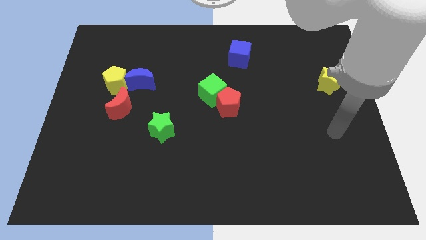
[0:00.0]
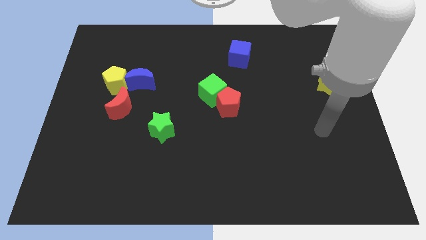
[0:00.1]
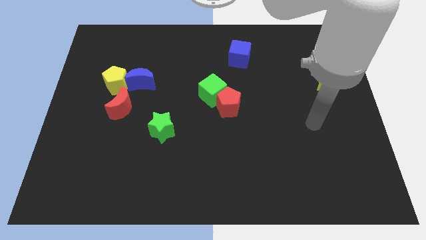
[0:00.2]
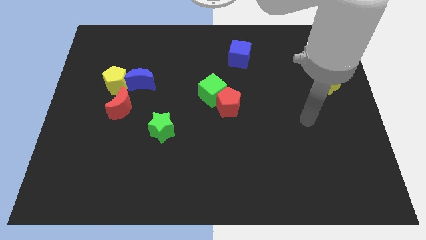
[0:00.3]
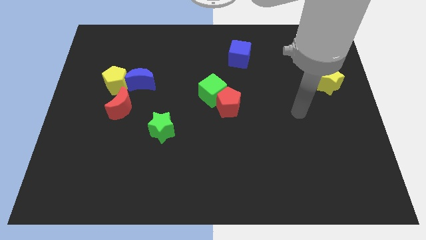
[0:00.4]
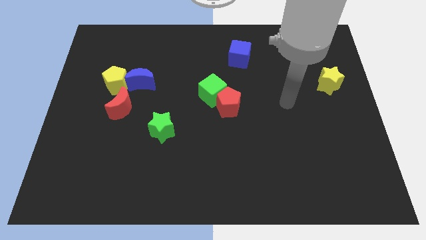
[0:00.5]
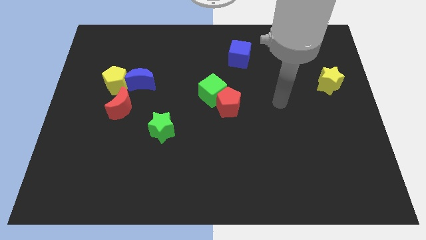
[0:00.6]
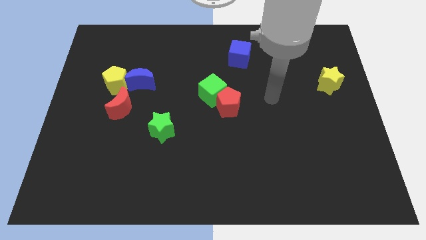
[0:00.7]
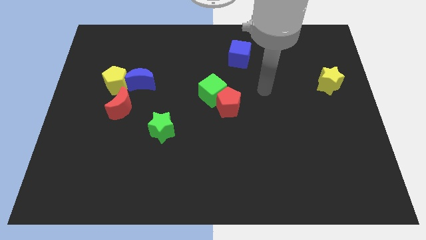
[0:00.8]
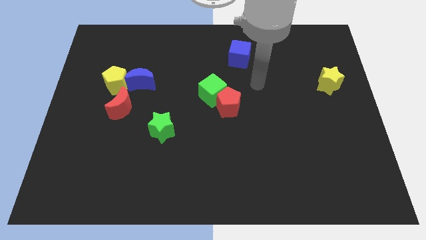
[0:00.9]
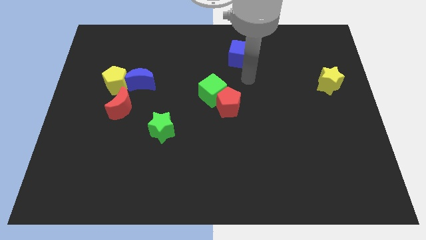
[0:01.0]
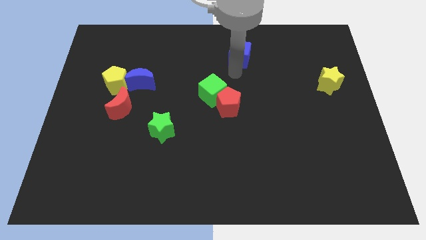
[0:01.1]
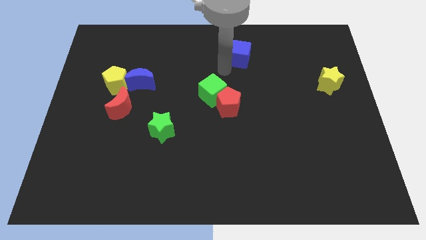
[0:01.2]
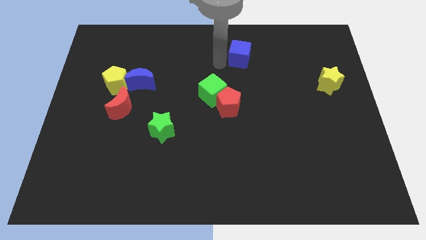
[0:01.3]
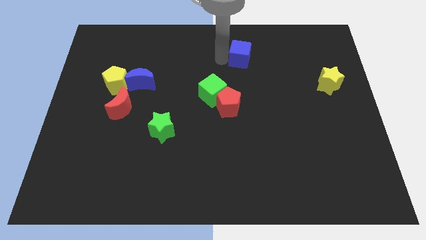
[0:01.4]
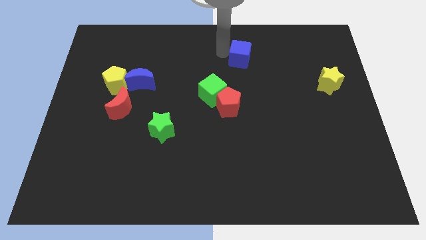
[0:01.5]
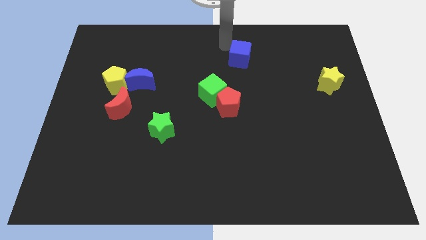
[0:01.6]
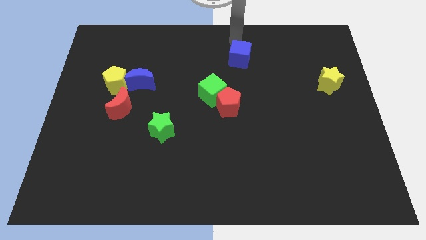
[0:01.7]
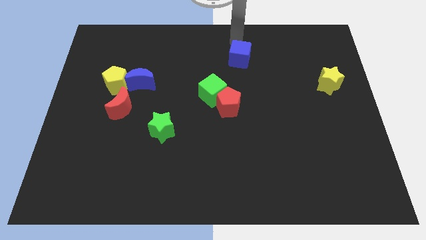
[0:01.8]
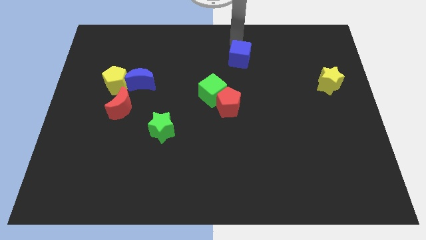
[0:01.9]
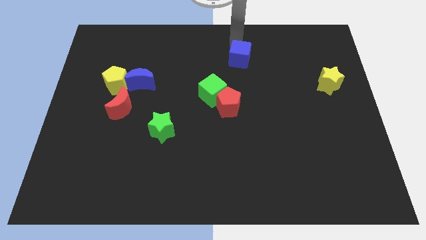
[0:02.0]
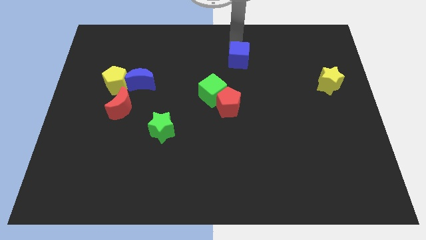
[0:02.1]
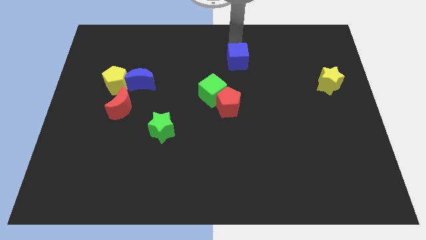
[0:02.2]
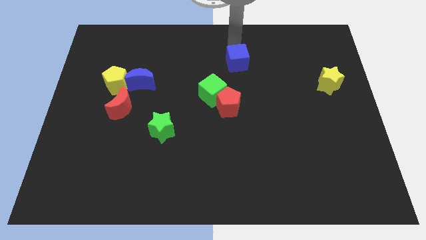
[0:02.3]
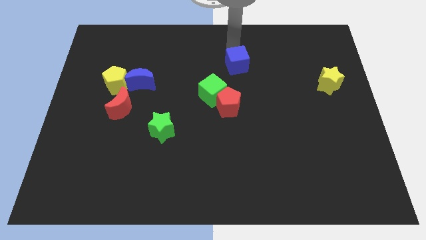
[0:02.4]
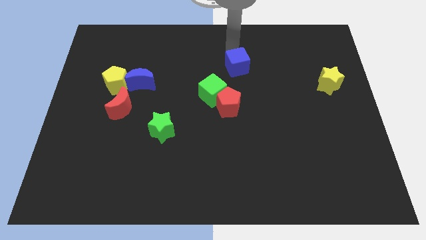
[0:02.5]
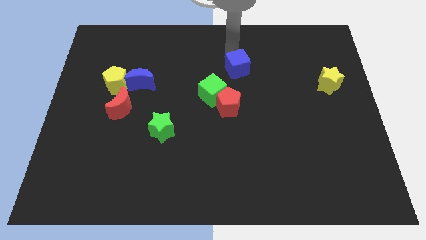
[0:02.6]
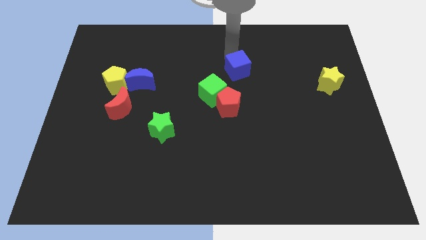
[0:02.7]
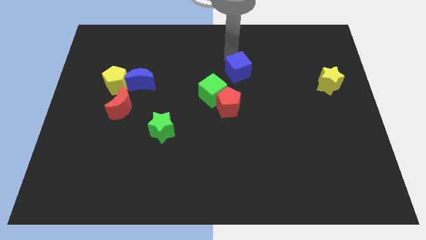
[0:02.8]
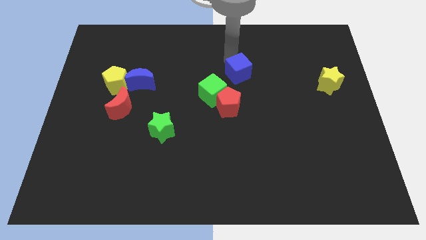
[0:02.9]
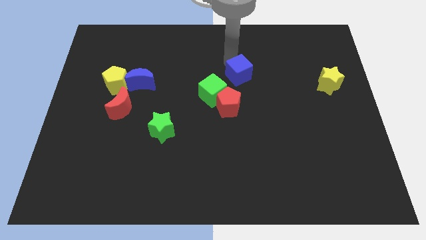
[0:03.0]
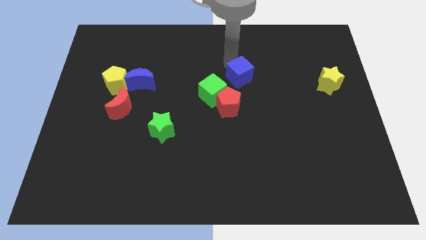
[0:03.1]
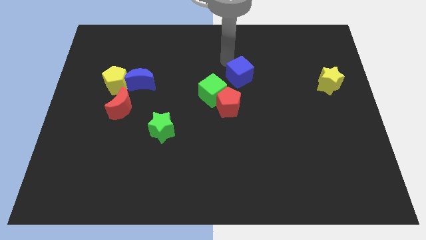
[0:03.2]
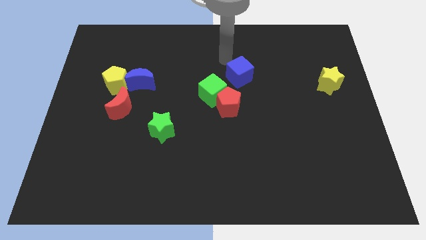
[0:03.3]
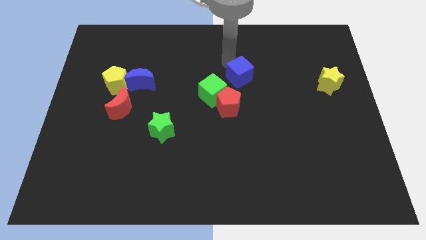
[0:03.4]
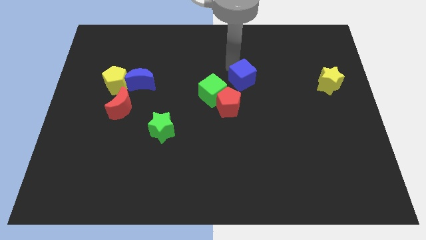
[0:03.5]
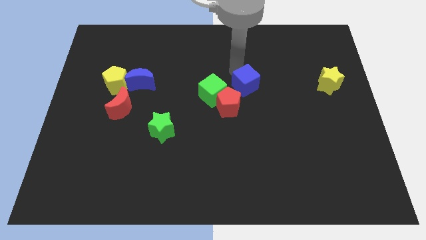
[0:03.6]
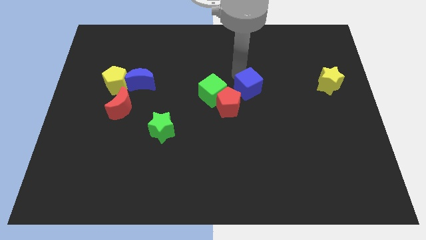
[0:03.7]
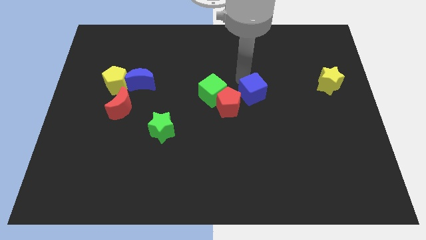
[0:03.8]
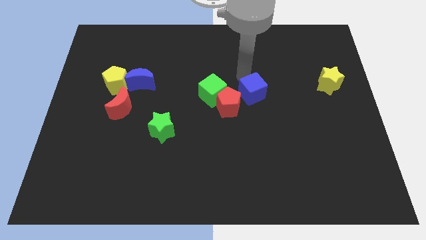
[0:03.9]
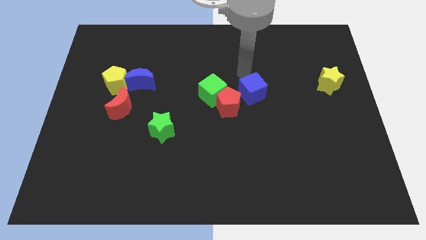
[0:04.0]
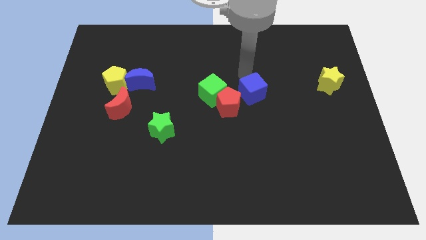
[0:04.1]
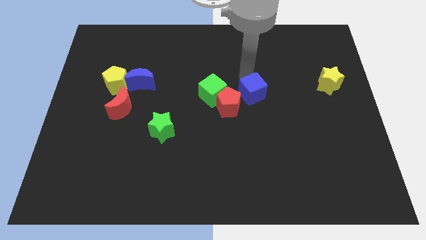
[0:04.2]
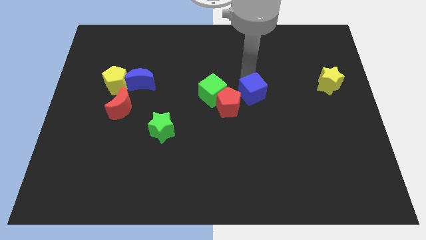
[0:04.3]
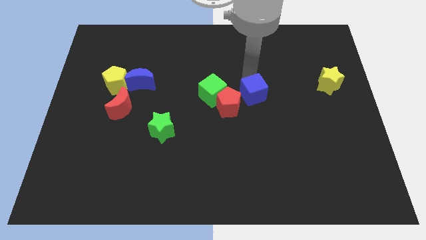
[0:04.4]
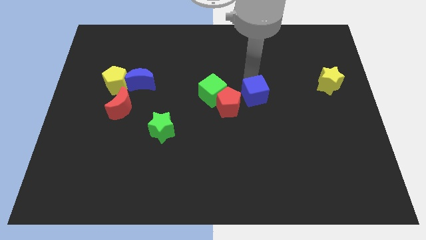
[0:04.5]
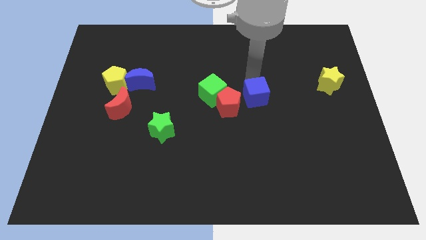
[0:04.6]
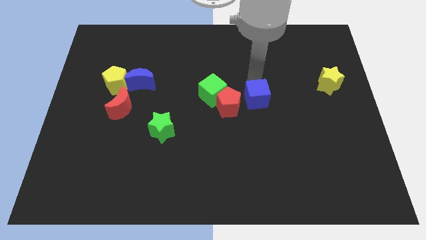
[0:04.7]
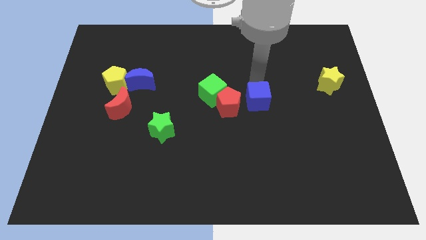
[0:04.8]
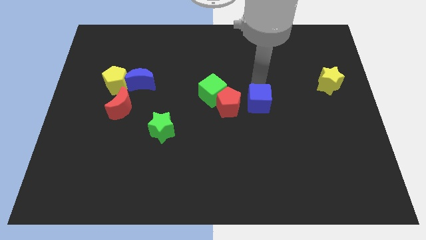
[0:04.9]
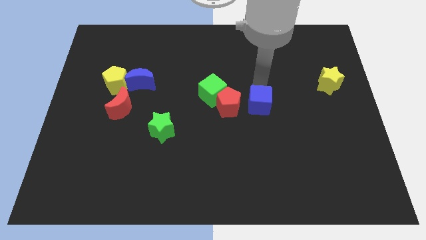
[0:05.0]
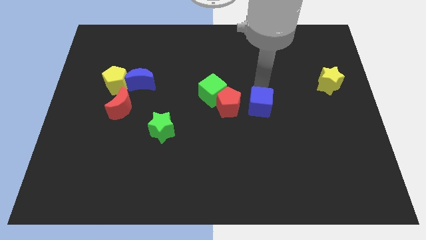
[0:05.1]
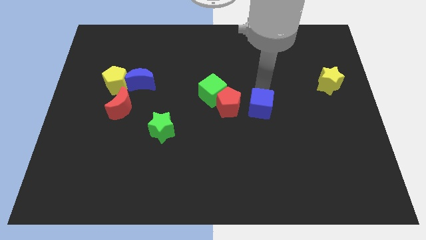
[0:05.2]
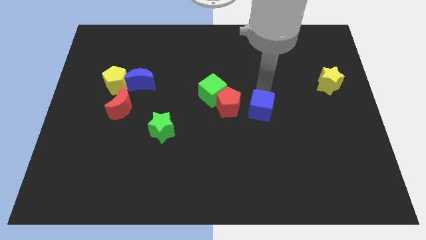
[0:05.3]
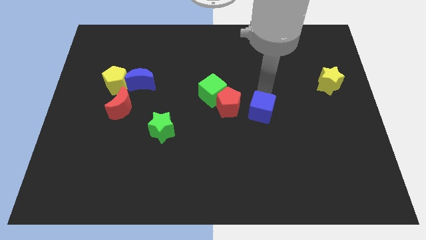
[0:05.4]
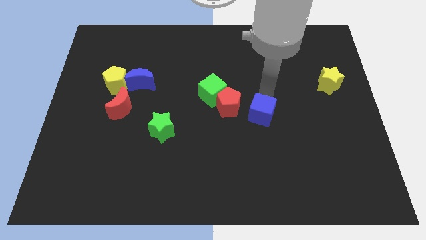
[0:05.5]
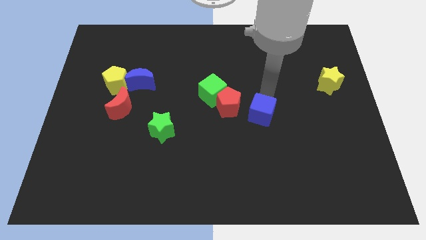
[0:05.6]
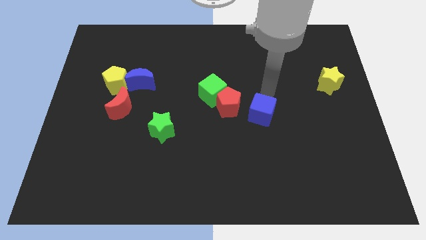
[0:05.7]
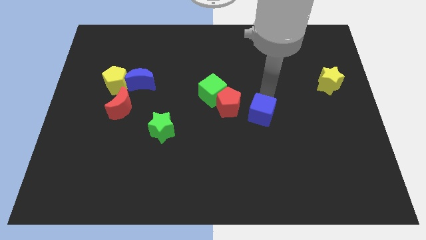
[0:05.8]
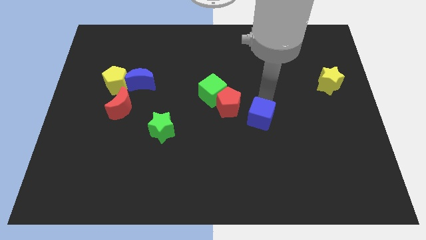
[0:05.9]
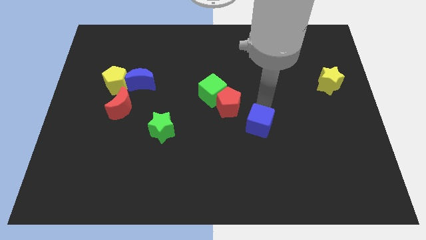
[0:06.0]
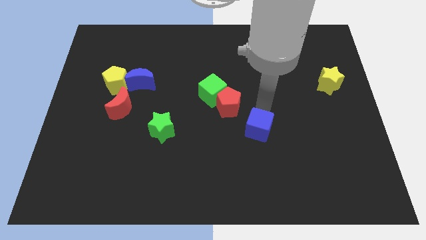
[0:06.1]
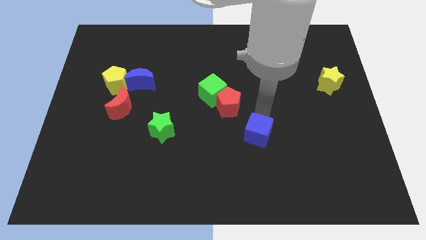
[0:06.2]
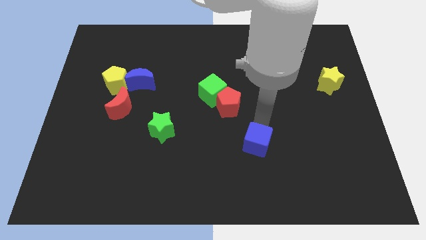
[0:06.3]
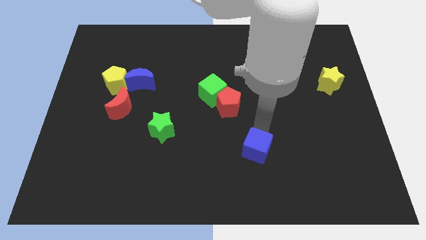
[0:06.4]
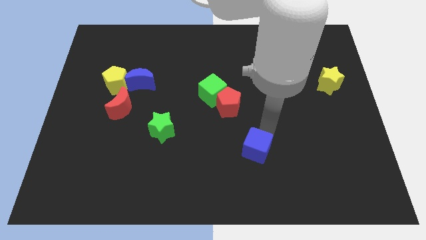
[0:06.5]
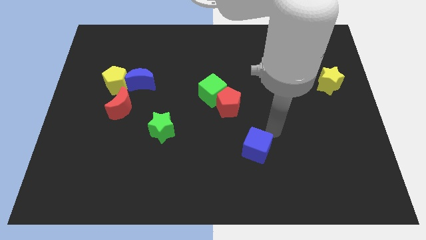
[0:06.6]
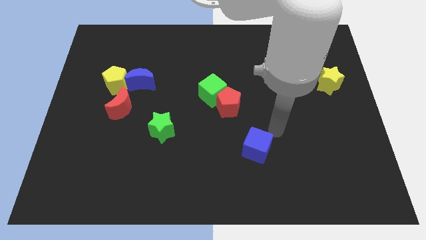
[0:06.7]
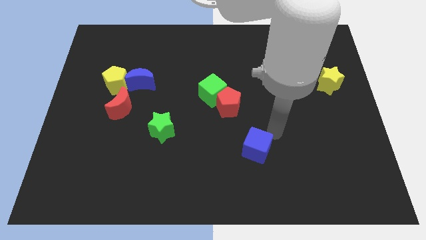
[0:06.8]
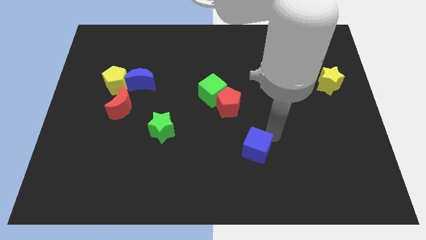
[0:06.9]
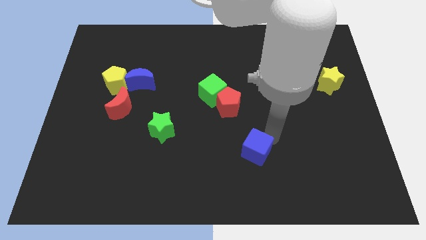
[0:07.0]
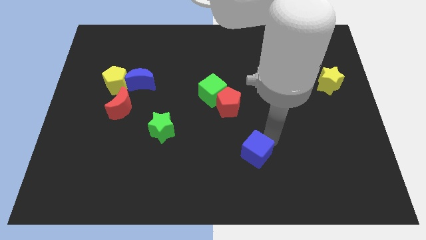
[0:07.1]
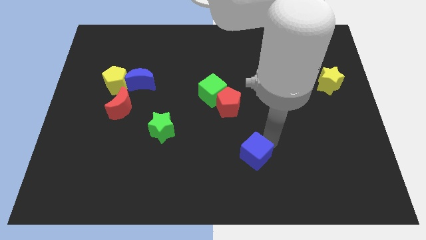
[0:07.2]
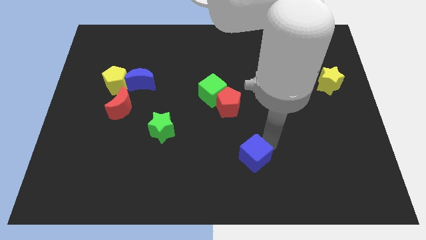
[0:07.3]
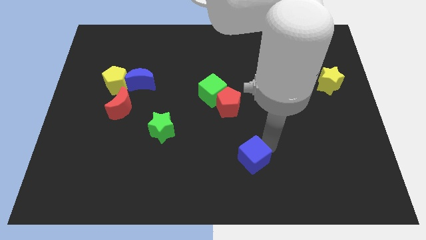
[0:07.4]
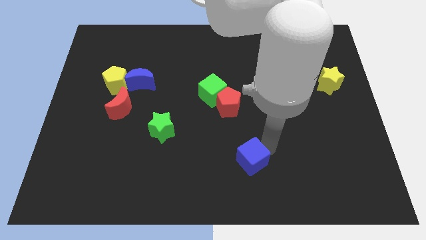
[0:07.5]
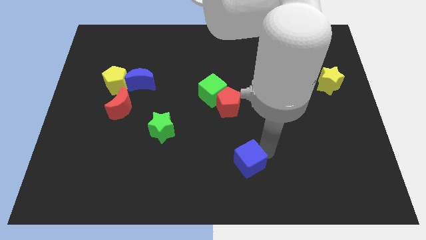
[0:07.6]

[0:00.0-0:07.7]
push the blue cube to the bottom side

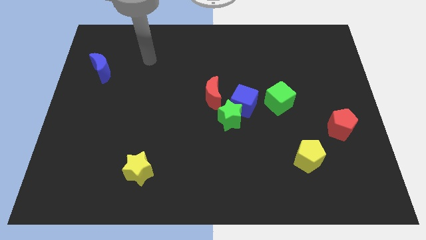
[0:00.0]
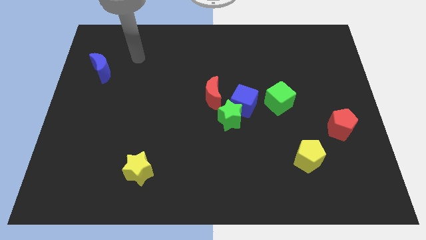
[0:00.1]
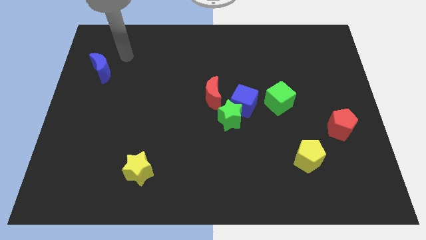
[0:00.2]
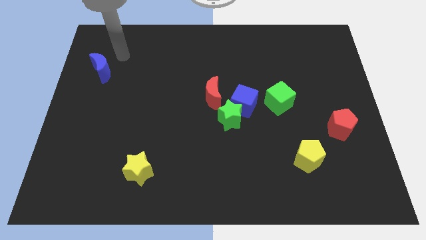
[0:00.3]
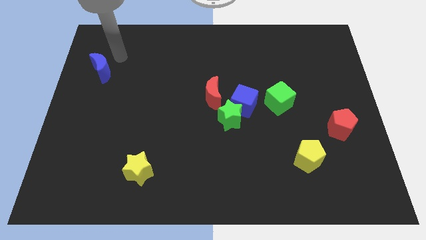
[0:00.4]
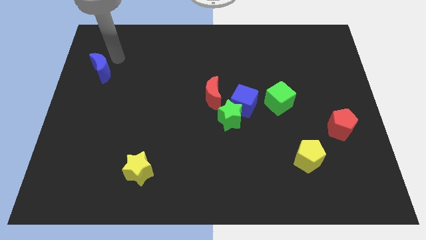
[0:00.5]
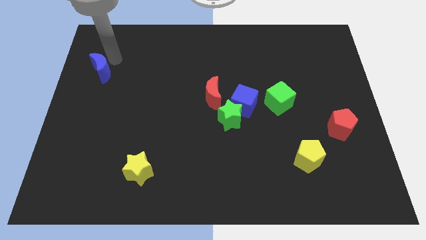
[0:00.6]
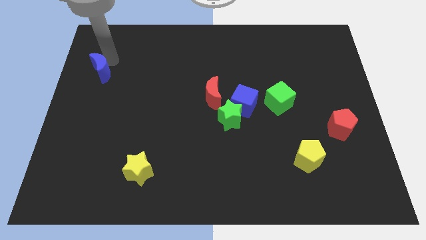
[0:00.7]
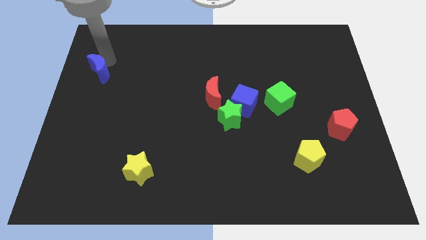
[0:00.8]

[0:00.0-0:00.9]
push the blue moon to the center left
